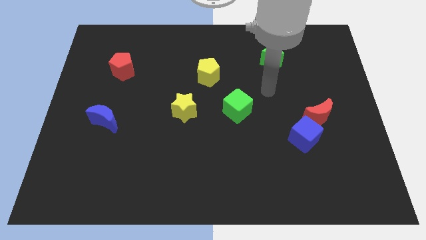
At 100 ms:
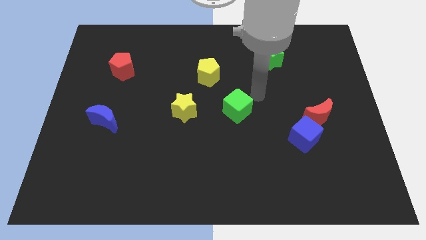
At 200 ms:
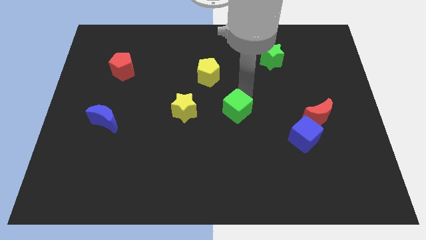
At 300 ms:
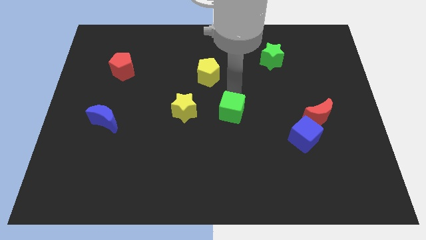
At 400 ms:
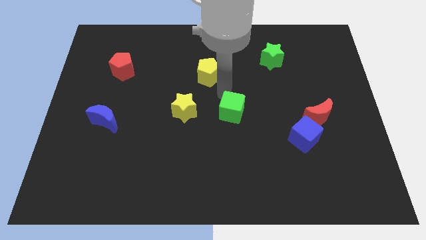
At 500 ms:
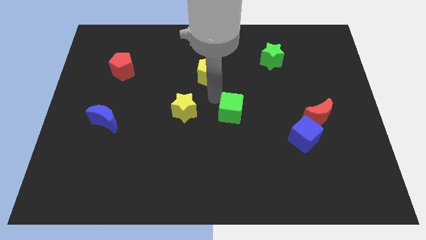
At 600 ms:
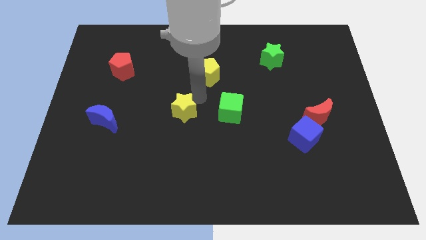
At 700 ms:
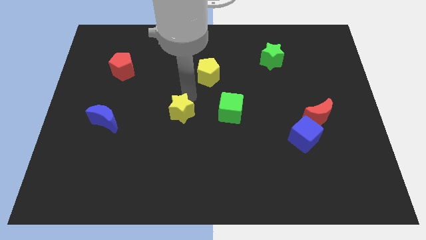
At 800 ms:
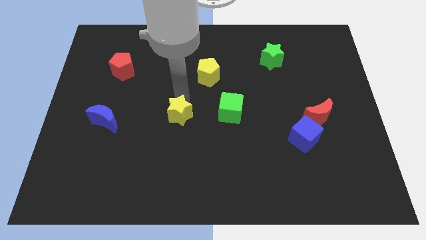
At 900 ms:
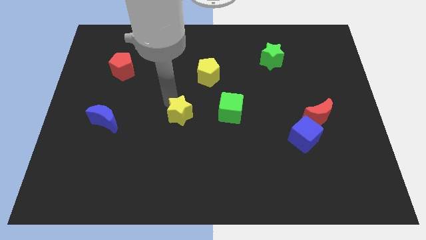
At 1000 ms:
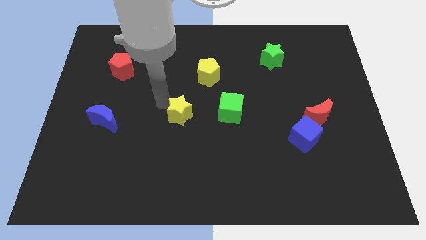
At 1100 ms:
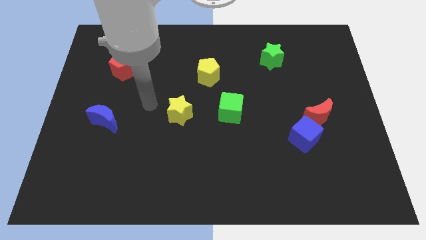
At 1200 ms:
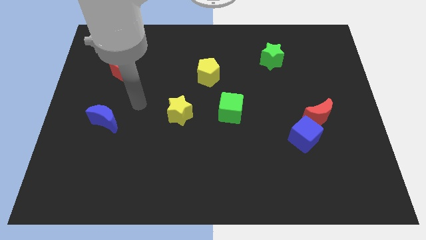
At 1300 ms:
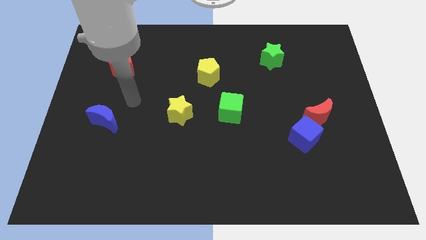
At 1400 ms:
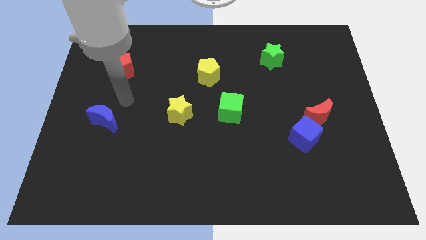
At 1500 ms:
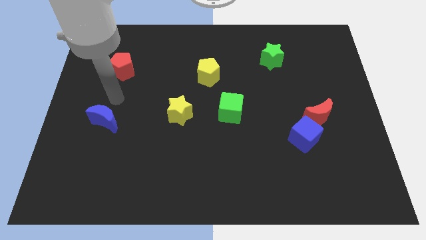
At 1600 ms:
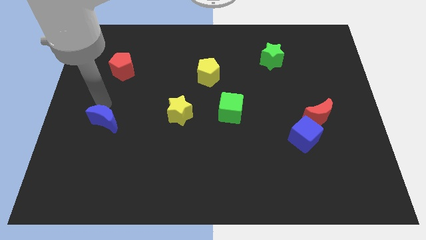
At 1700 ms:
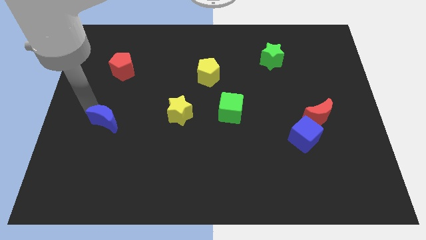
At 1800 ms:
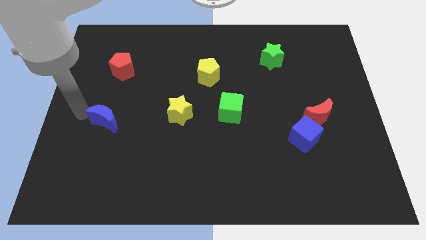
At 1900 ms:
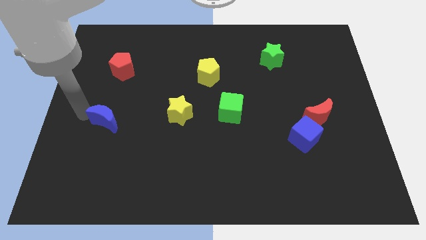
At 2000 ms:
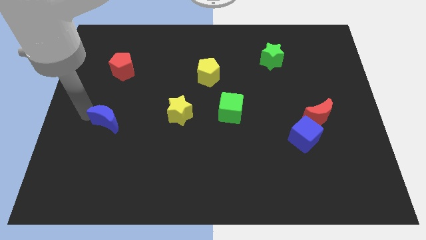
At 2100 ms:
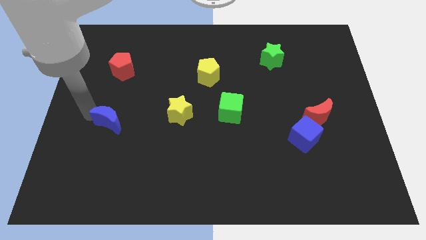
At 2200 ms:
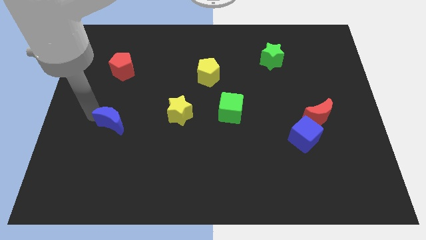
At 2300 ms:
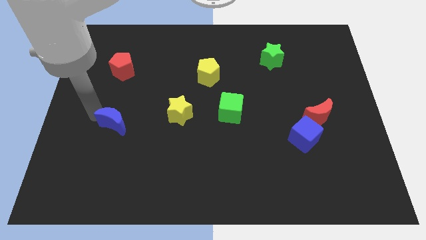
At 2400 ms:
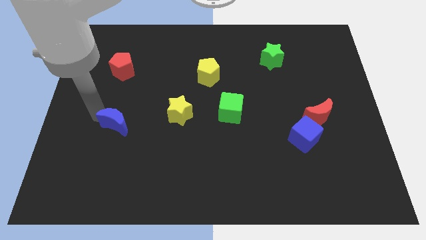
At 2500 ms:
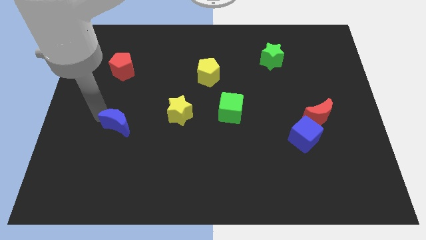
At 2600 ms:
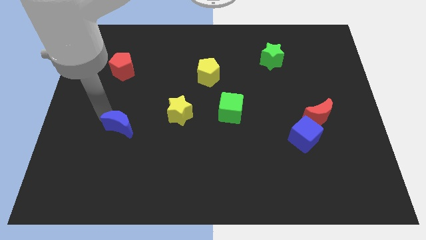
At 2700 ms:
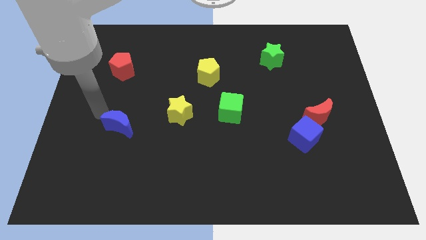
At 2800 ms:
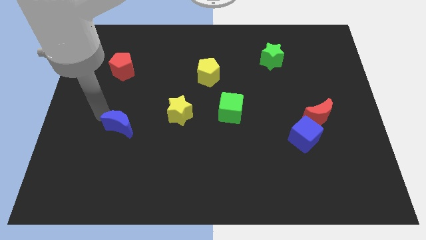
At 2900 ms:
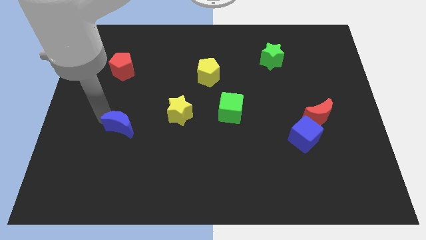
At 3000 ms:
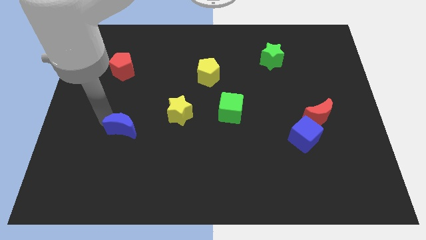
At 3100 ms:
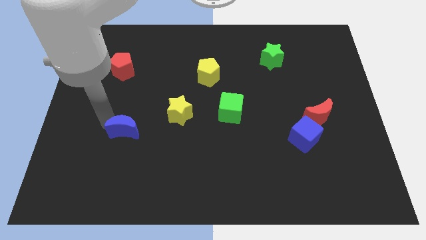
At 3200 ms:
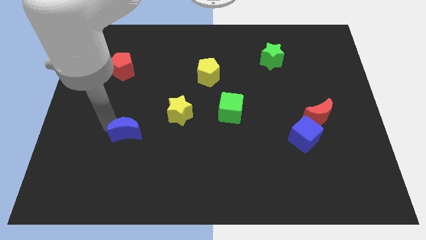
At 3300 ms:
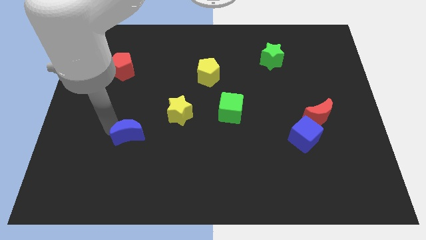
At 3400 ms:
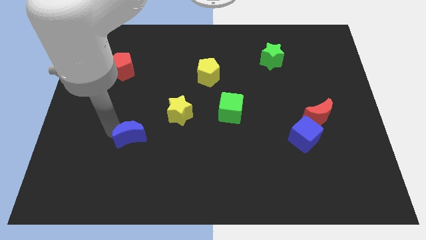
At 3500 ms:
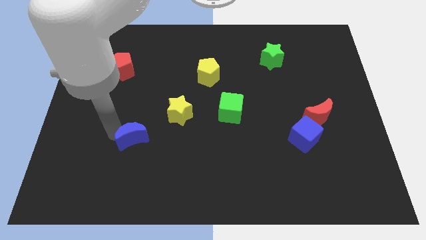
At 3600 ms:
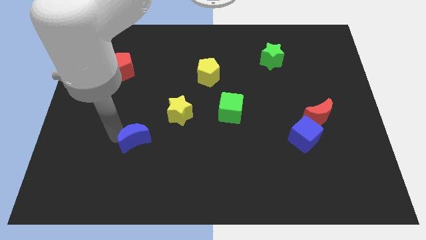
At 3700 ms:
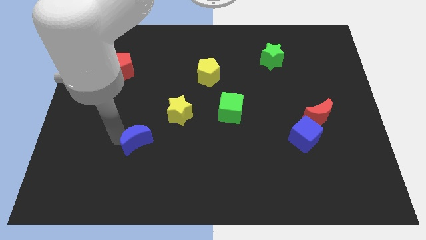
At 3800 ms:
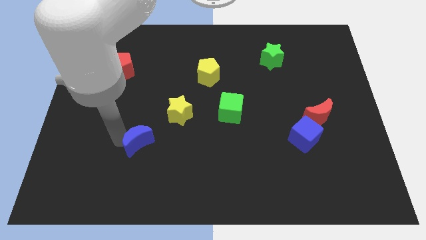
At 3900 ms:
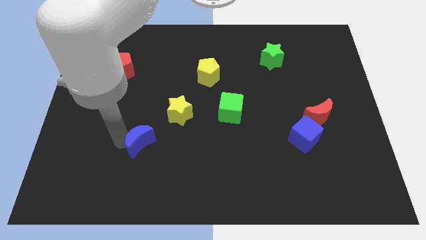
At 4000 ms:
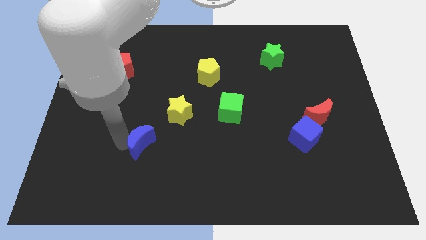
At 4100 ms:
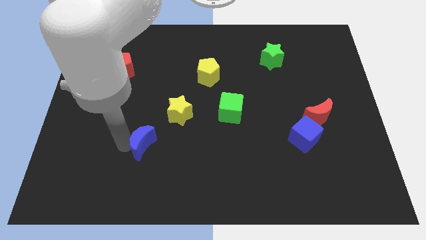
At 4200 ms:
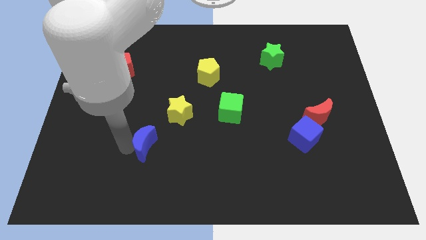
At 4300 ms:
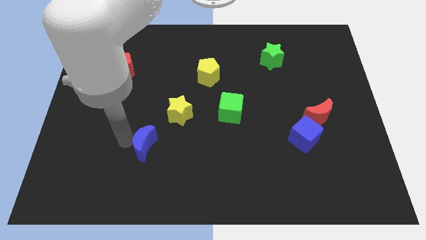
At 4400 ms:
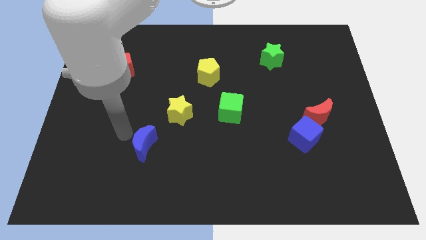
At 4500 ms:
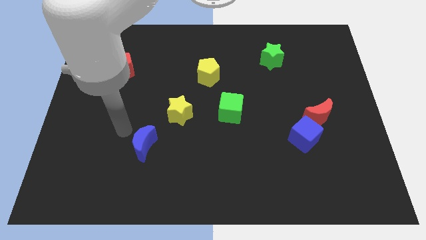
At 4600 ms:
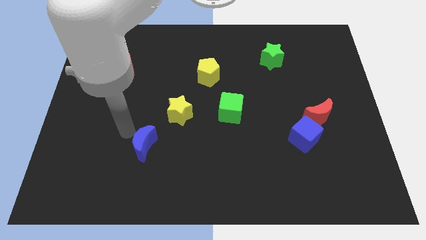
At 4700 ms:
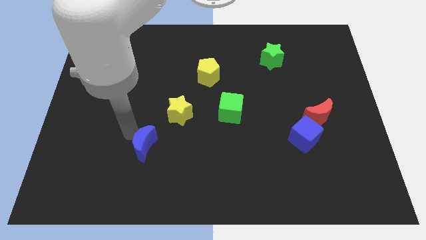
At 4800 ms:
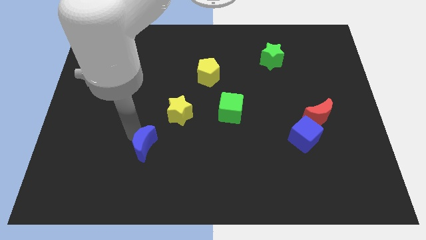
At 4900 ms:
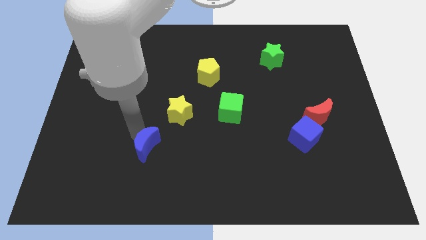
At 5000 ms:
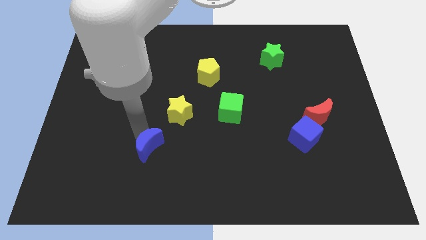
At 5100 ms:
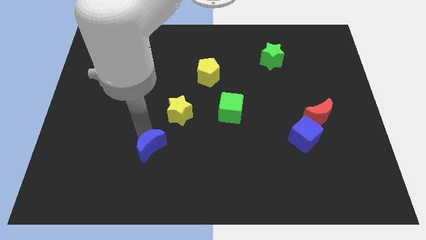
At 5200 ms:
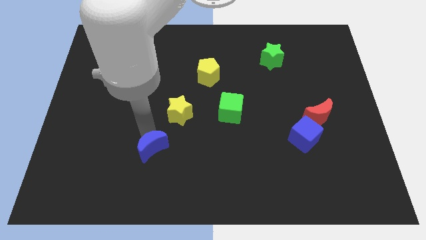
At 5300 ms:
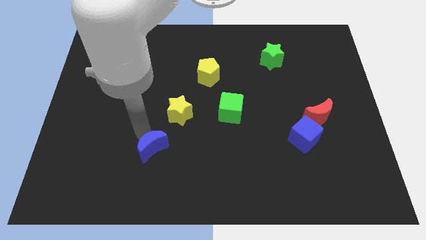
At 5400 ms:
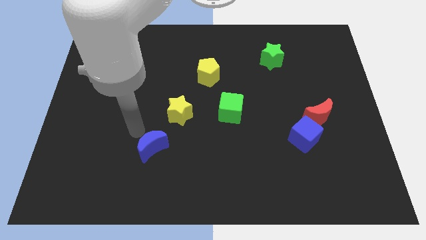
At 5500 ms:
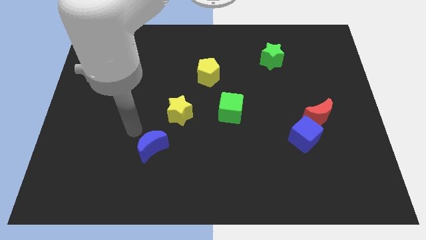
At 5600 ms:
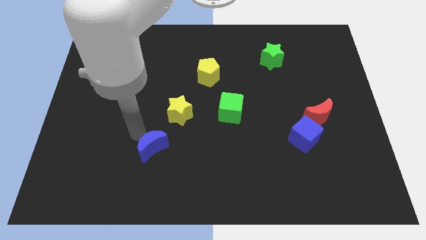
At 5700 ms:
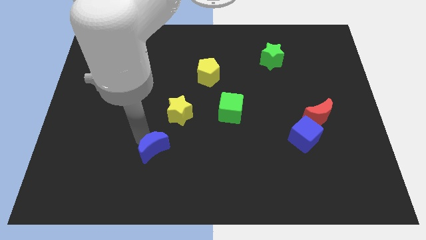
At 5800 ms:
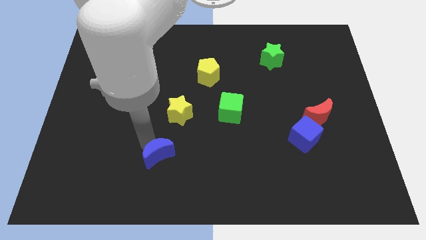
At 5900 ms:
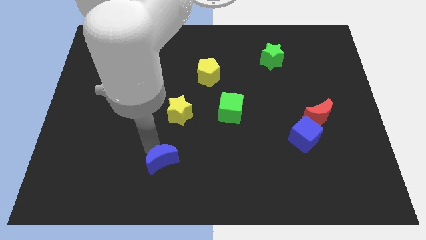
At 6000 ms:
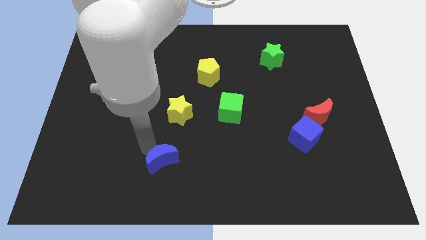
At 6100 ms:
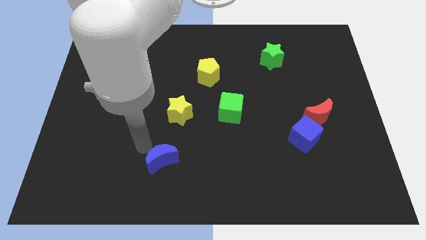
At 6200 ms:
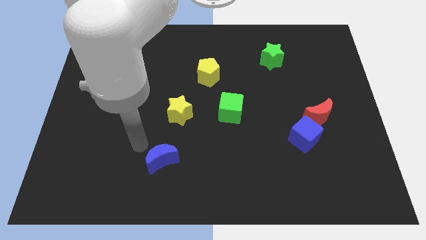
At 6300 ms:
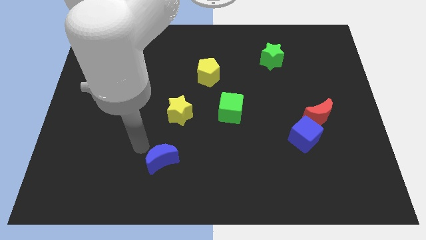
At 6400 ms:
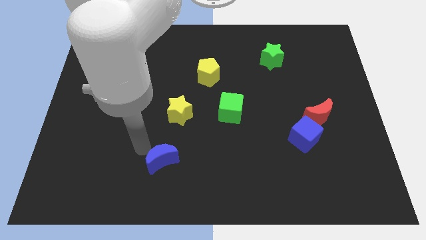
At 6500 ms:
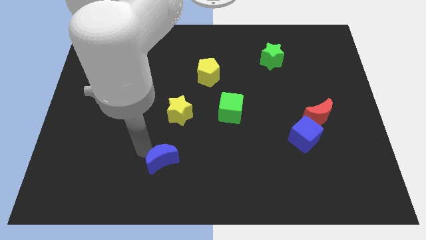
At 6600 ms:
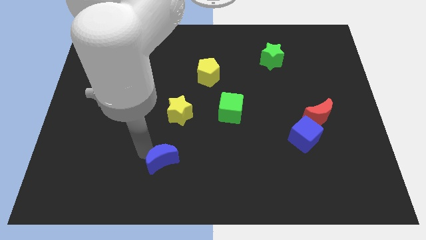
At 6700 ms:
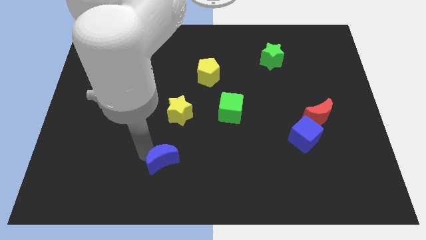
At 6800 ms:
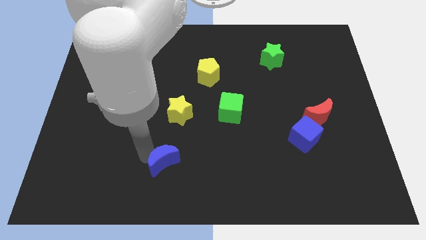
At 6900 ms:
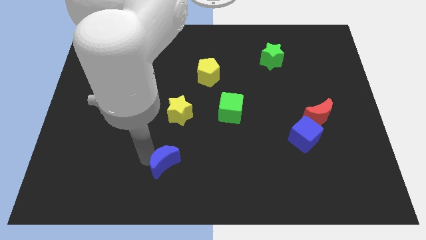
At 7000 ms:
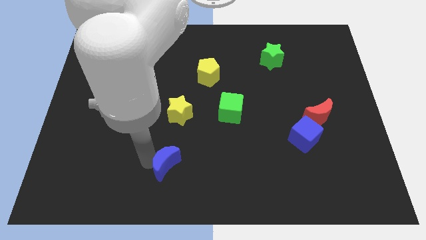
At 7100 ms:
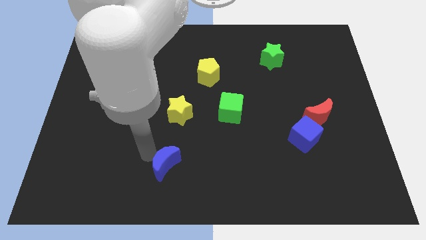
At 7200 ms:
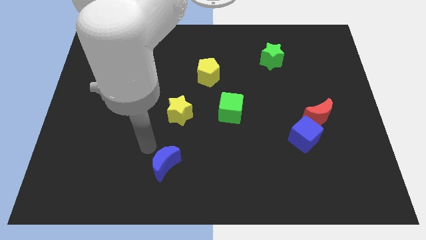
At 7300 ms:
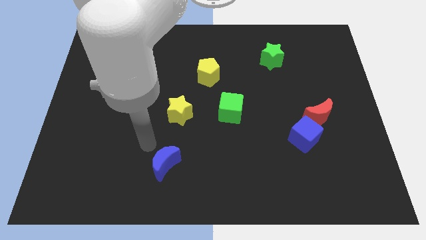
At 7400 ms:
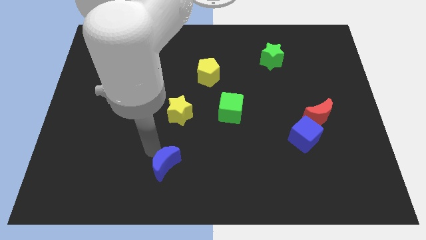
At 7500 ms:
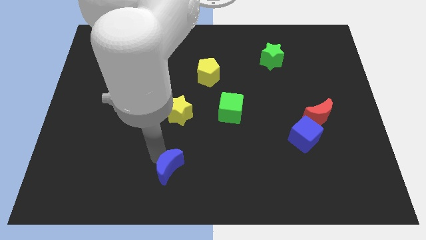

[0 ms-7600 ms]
move the blue moon to the bottom side
